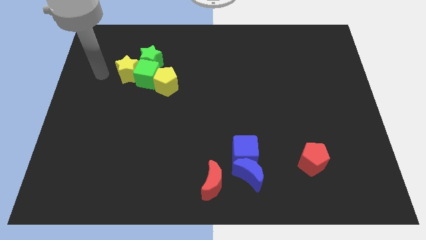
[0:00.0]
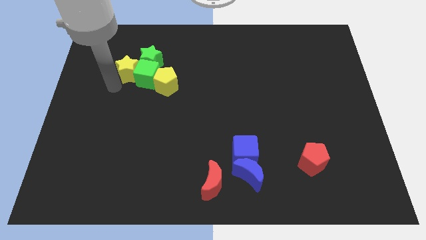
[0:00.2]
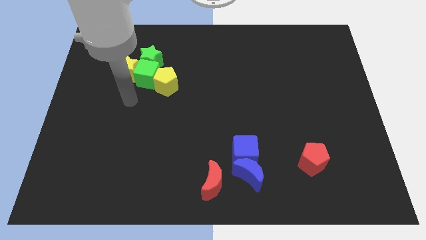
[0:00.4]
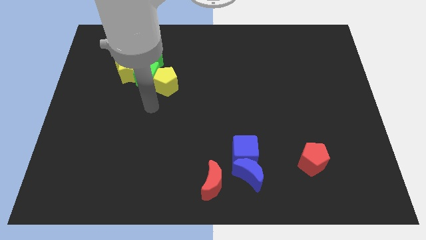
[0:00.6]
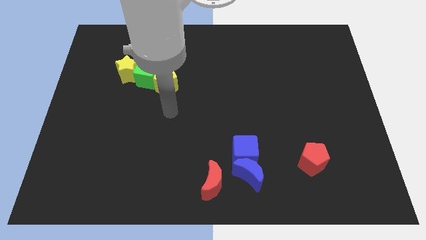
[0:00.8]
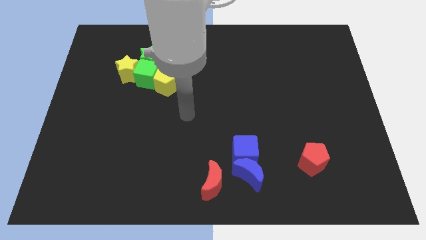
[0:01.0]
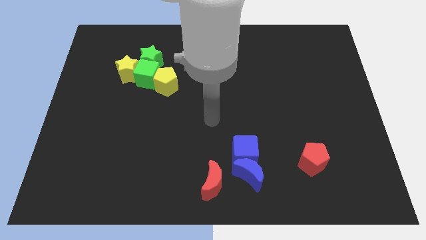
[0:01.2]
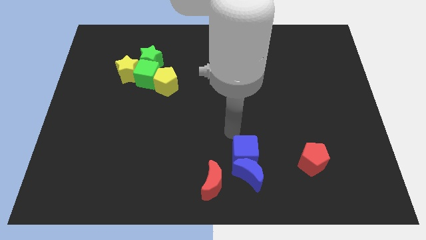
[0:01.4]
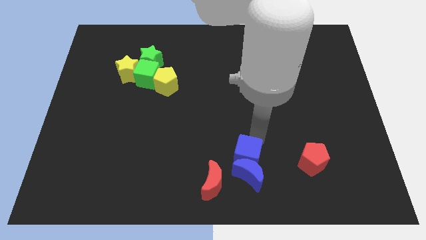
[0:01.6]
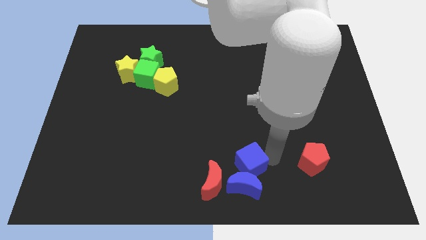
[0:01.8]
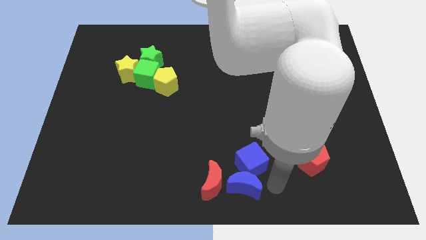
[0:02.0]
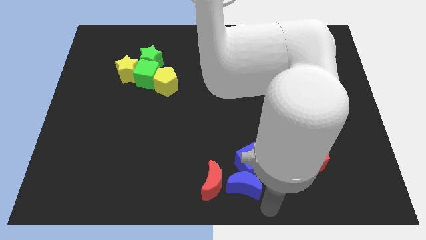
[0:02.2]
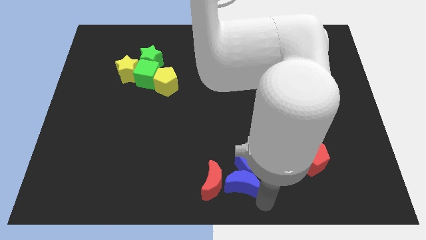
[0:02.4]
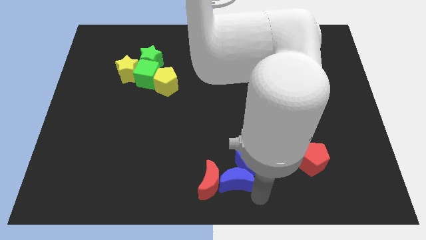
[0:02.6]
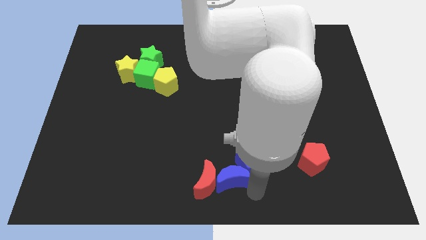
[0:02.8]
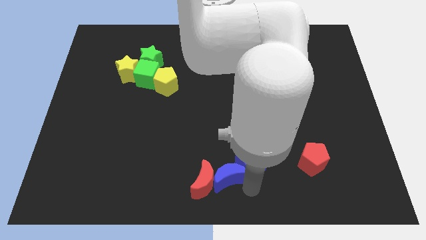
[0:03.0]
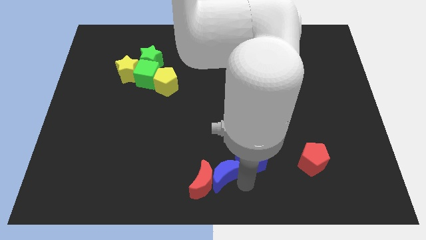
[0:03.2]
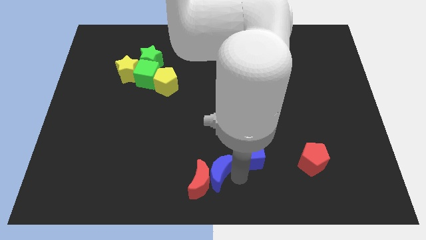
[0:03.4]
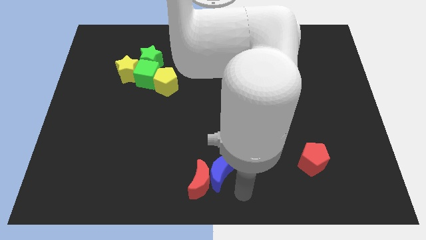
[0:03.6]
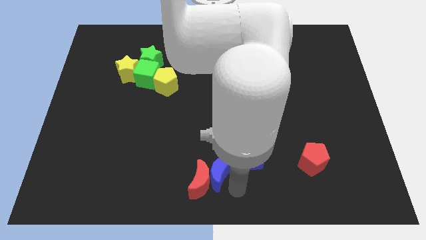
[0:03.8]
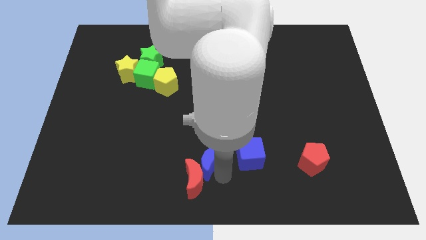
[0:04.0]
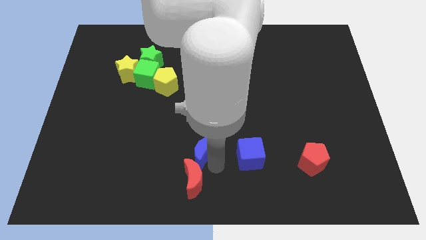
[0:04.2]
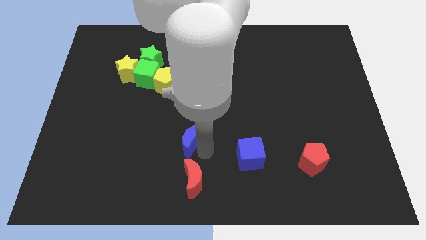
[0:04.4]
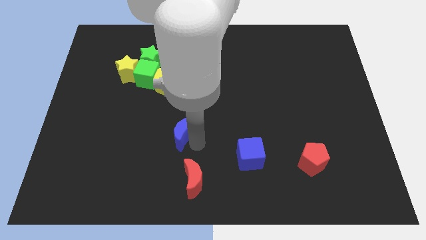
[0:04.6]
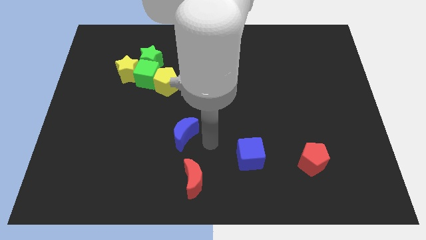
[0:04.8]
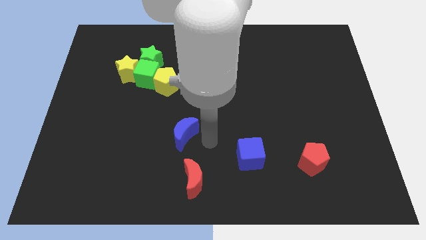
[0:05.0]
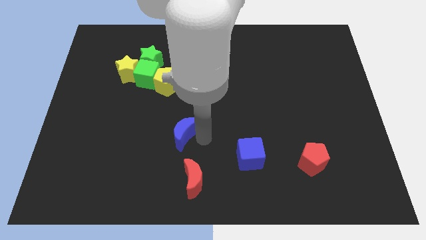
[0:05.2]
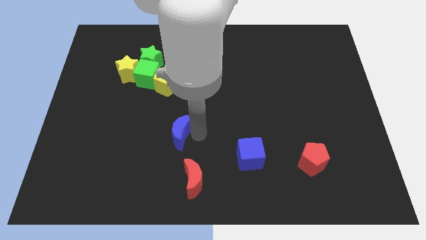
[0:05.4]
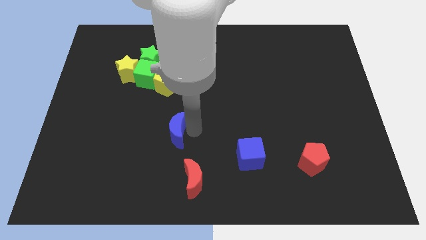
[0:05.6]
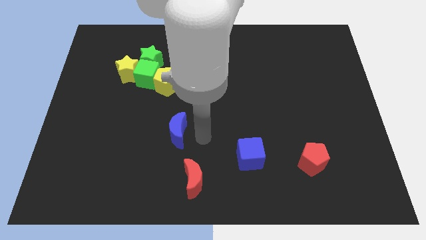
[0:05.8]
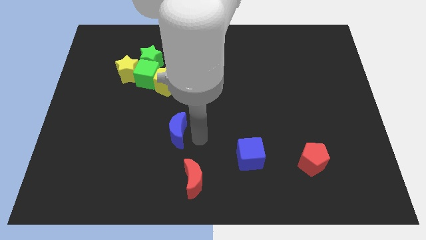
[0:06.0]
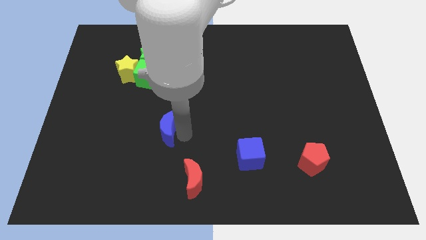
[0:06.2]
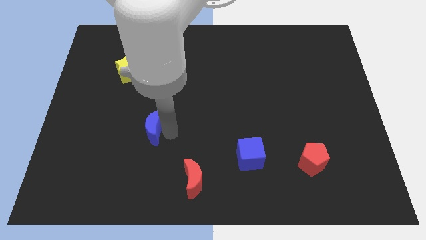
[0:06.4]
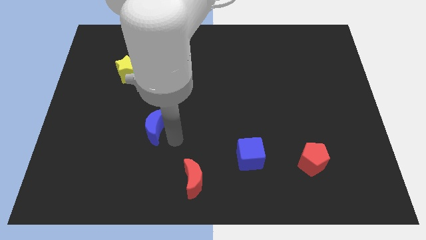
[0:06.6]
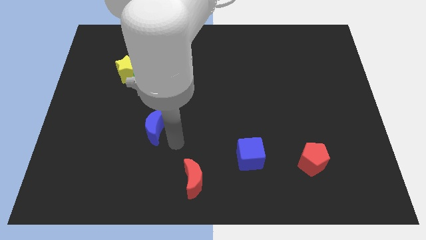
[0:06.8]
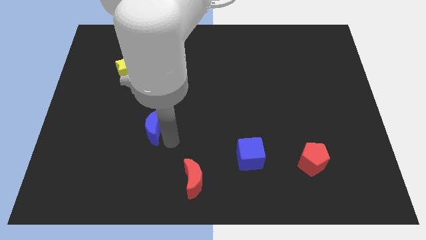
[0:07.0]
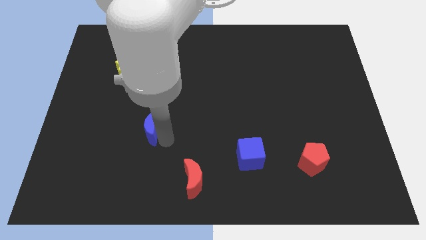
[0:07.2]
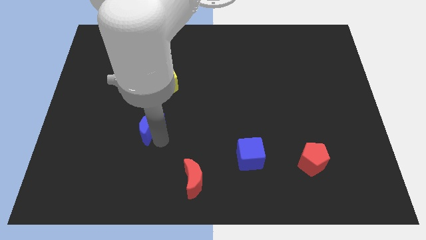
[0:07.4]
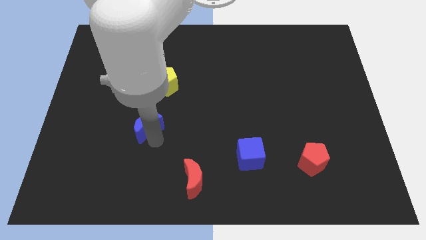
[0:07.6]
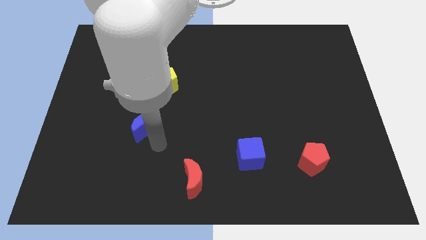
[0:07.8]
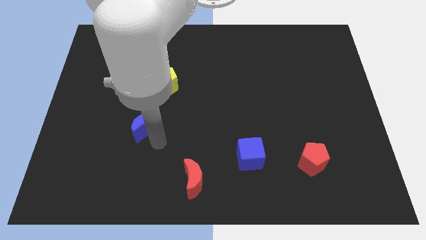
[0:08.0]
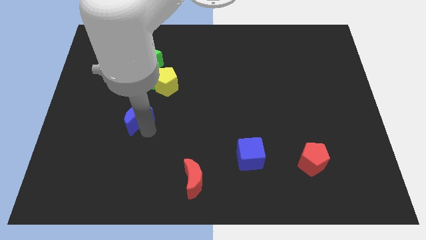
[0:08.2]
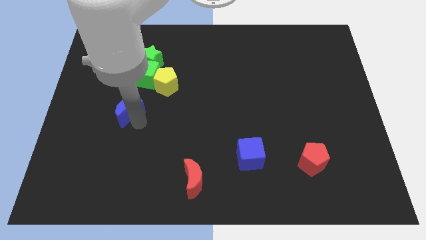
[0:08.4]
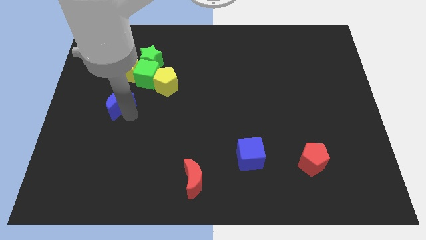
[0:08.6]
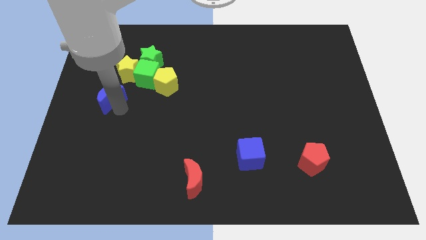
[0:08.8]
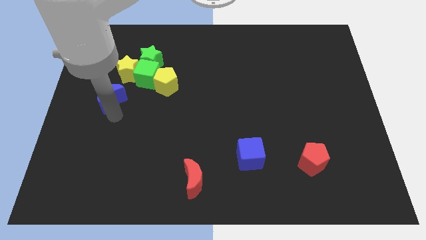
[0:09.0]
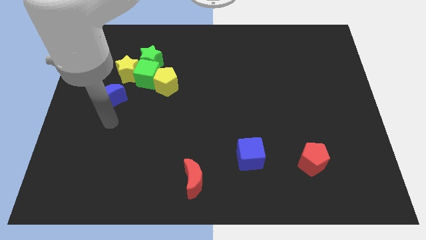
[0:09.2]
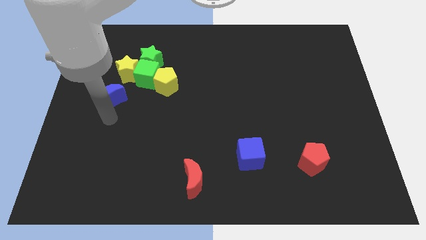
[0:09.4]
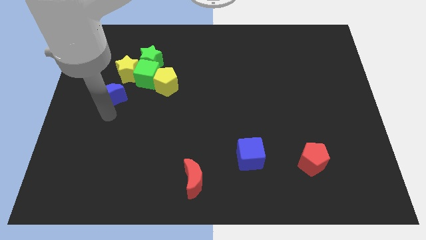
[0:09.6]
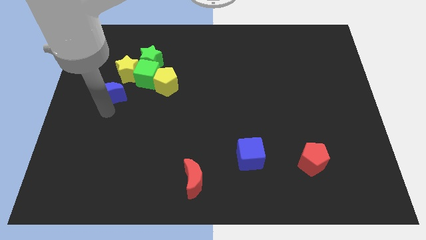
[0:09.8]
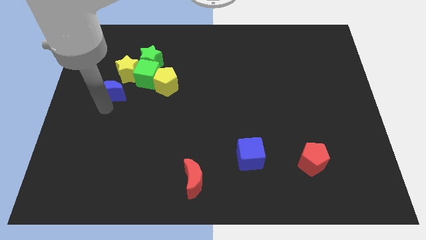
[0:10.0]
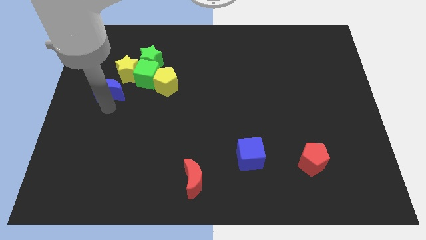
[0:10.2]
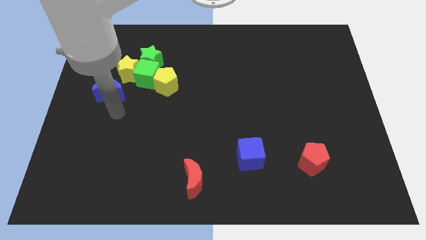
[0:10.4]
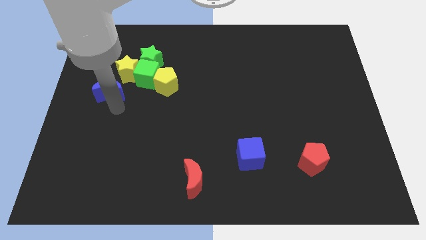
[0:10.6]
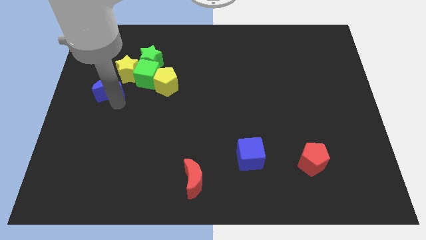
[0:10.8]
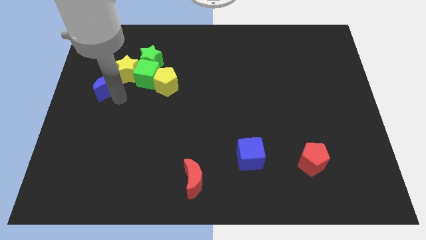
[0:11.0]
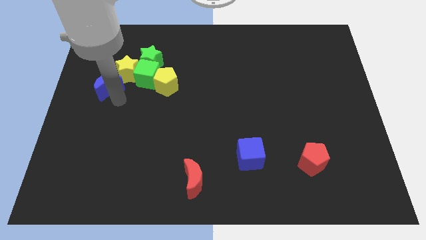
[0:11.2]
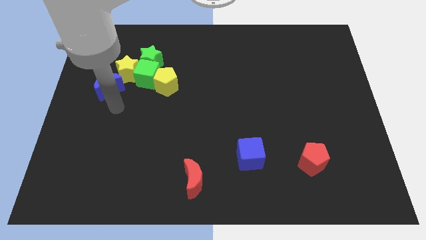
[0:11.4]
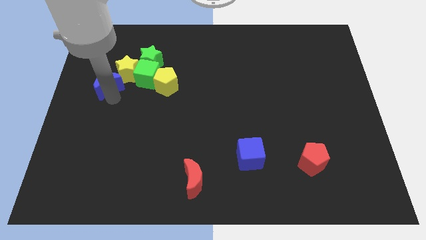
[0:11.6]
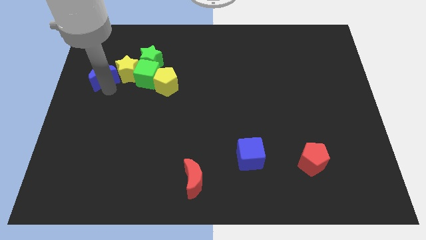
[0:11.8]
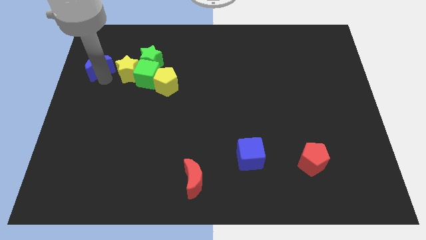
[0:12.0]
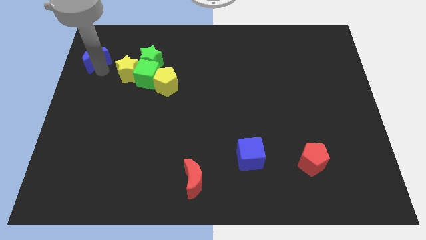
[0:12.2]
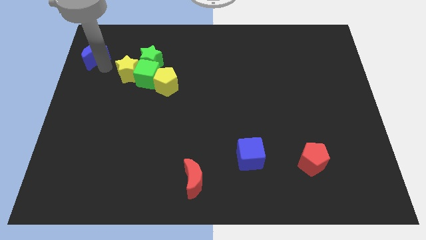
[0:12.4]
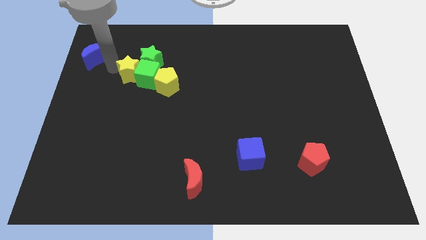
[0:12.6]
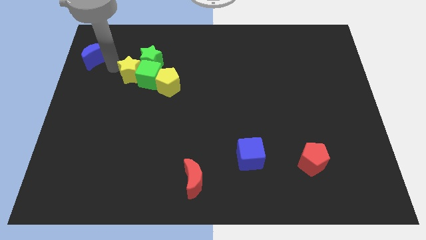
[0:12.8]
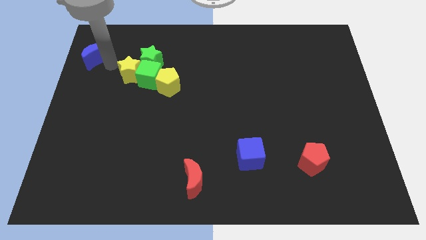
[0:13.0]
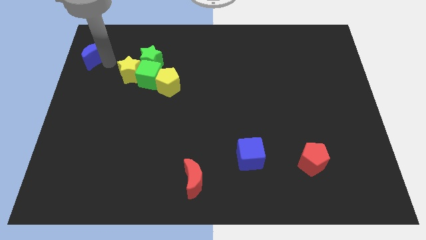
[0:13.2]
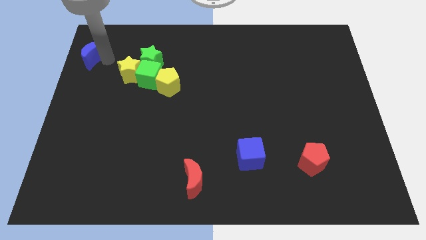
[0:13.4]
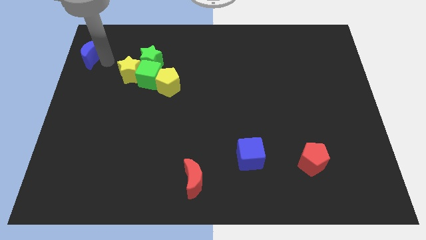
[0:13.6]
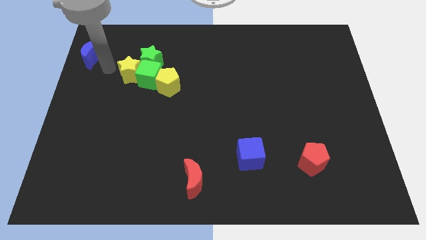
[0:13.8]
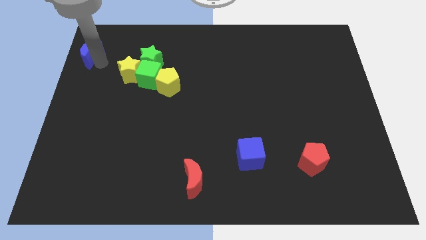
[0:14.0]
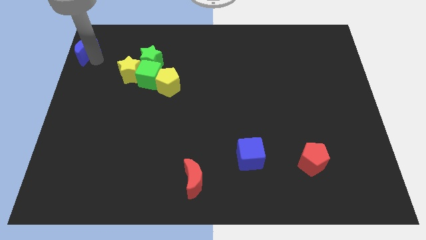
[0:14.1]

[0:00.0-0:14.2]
push the blue moon to the top left of the board

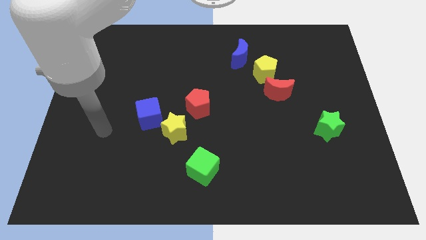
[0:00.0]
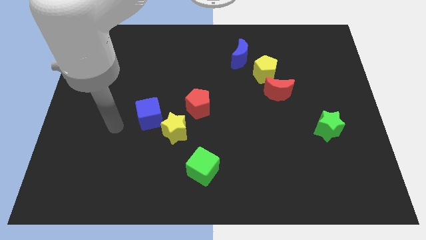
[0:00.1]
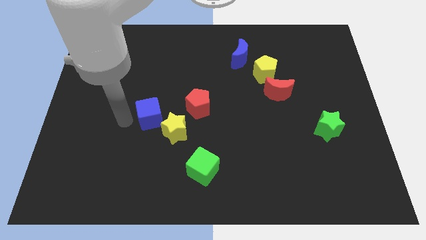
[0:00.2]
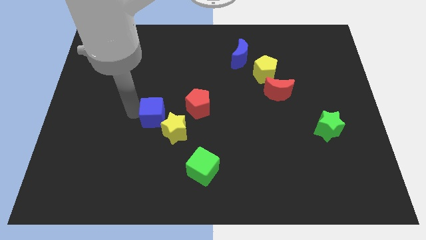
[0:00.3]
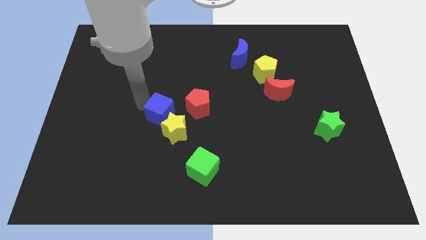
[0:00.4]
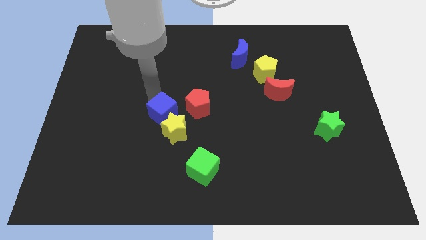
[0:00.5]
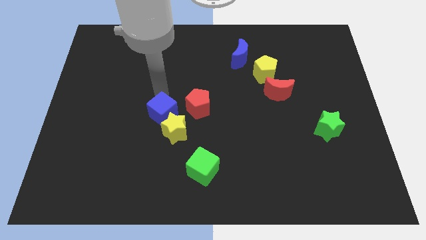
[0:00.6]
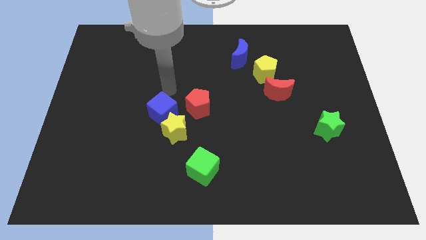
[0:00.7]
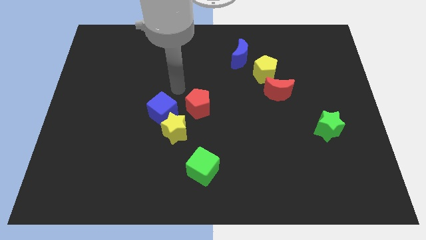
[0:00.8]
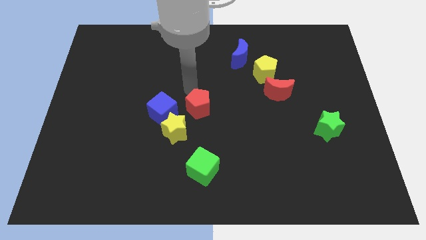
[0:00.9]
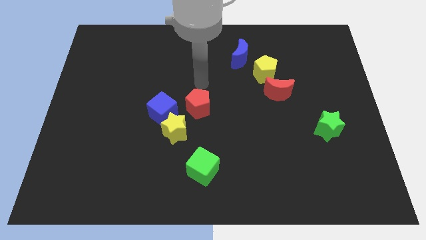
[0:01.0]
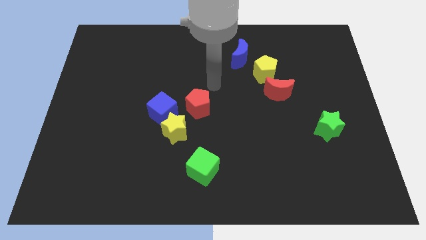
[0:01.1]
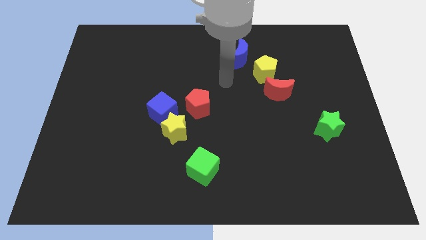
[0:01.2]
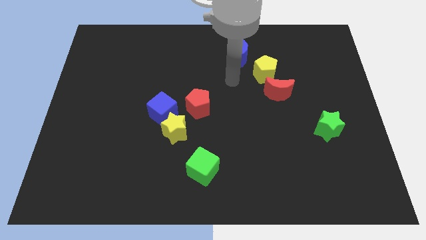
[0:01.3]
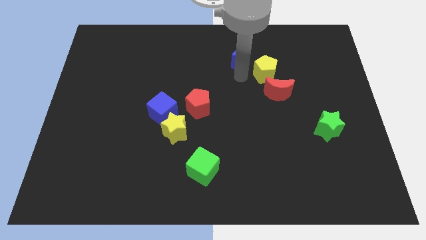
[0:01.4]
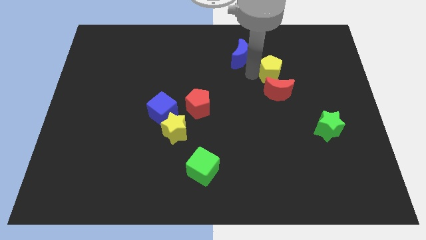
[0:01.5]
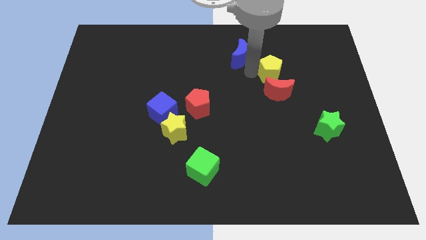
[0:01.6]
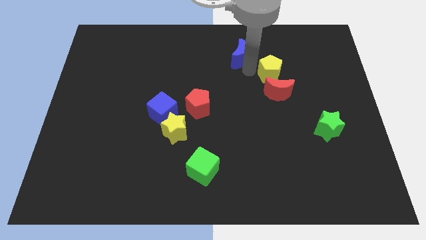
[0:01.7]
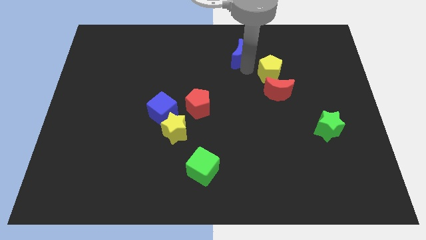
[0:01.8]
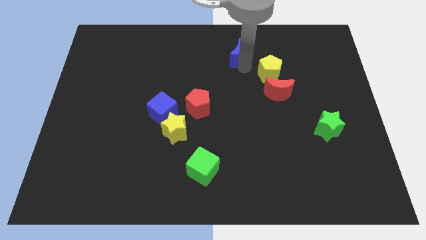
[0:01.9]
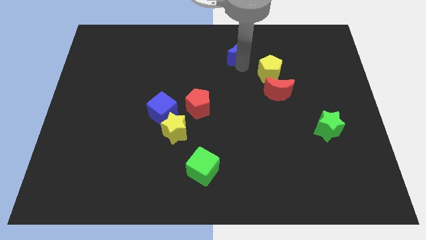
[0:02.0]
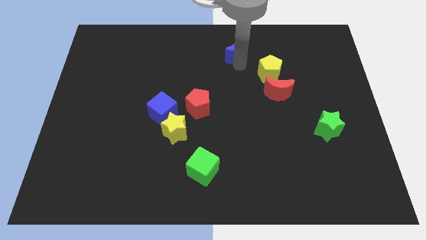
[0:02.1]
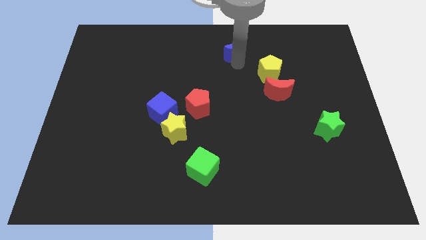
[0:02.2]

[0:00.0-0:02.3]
move the blue moon to the towards your base
